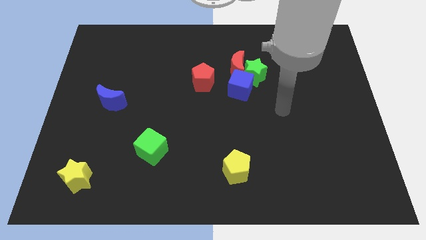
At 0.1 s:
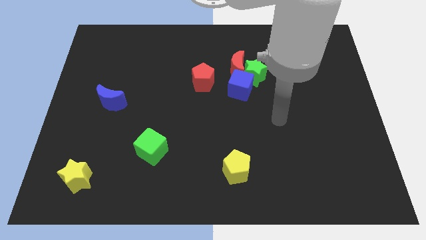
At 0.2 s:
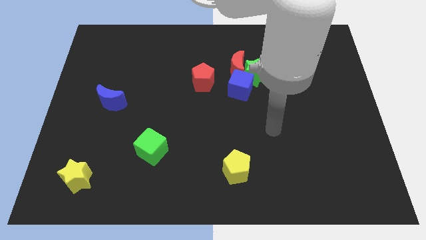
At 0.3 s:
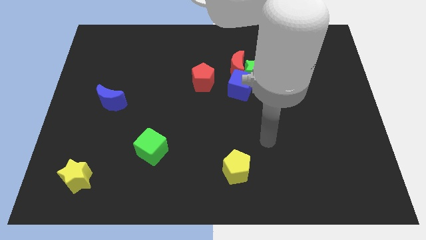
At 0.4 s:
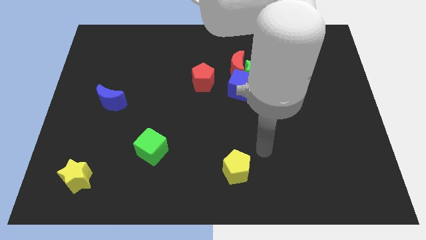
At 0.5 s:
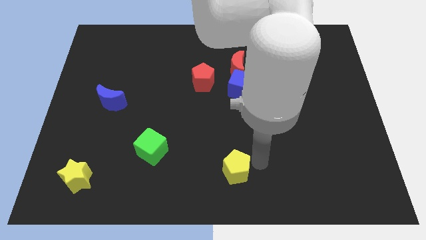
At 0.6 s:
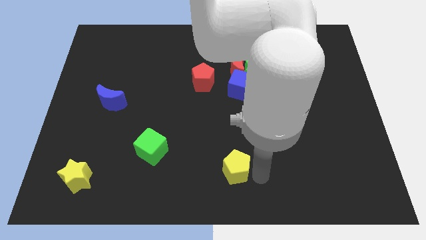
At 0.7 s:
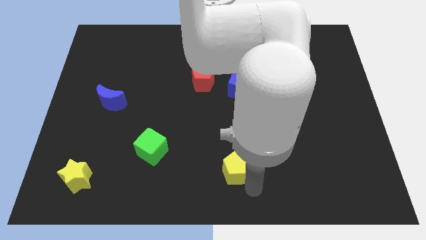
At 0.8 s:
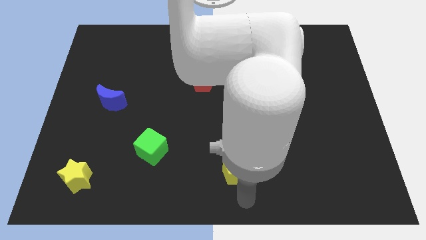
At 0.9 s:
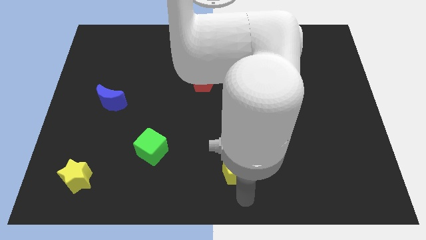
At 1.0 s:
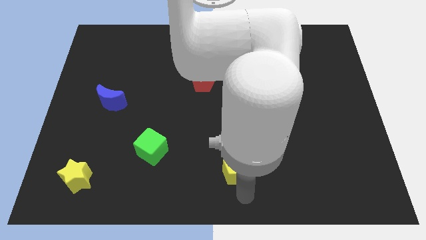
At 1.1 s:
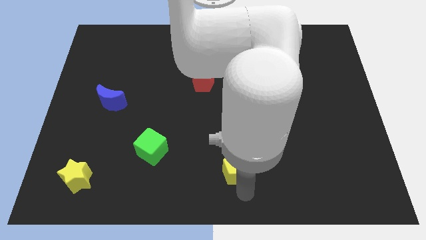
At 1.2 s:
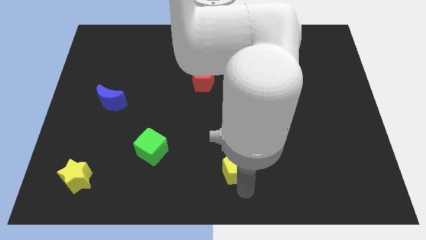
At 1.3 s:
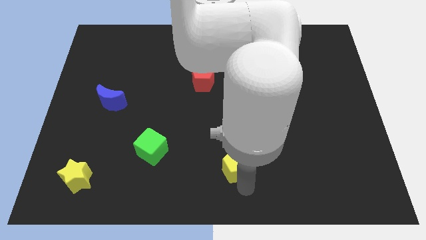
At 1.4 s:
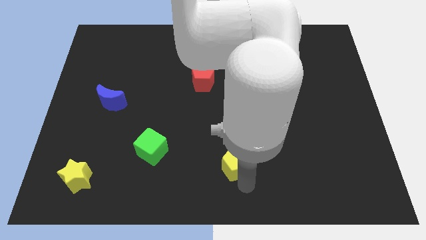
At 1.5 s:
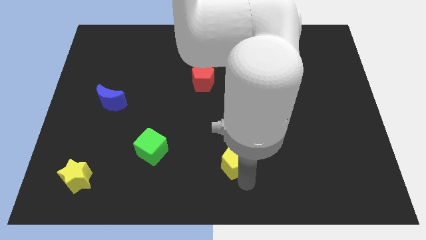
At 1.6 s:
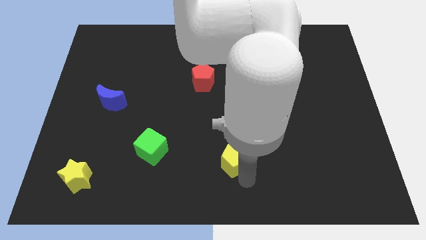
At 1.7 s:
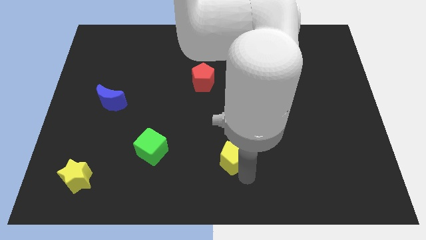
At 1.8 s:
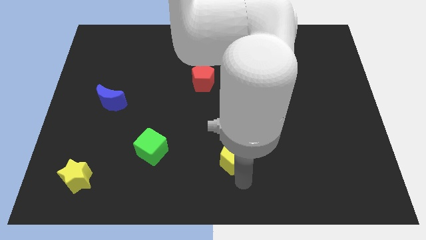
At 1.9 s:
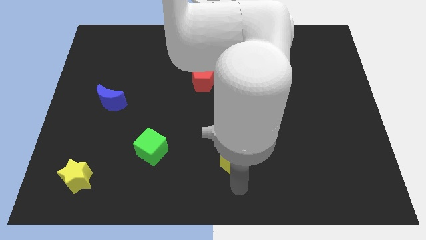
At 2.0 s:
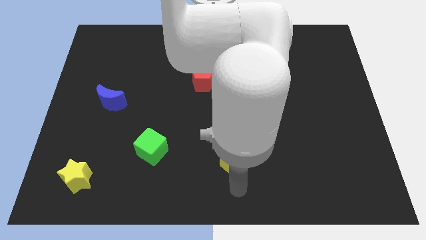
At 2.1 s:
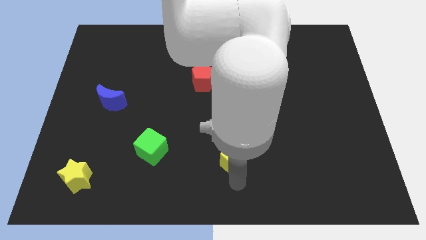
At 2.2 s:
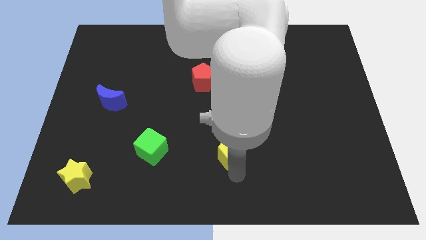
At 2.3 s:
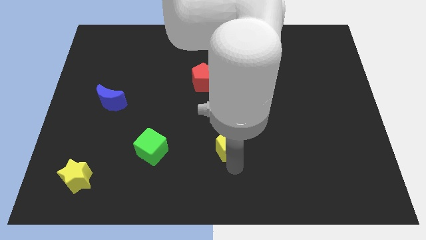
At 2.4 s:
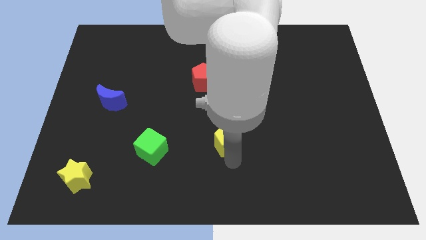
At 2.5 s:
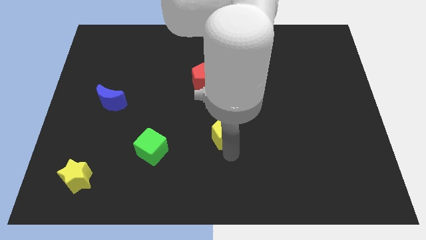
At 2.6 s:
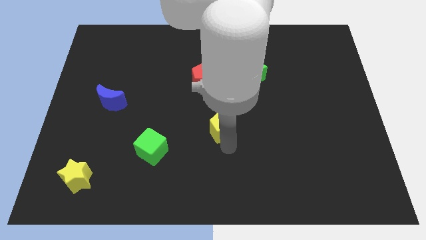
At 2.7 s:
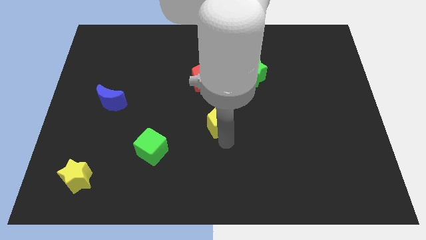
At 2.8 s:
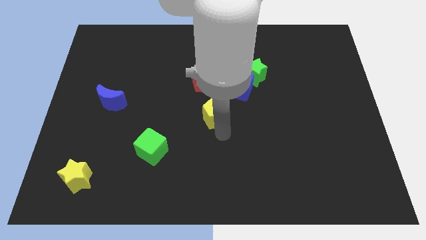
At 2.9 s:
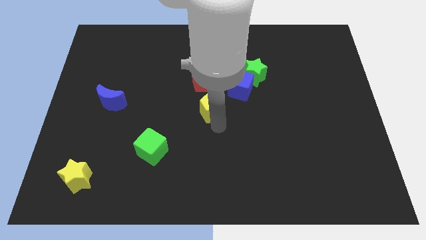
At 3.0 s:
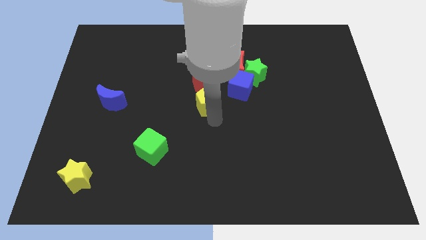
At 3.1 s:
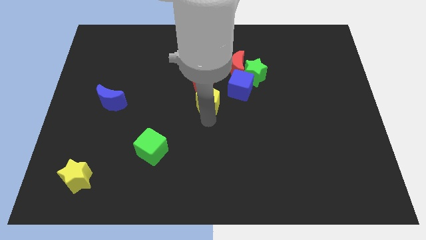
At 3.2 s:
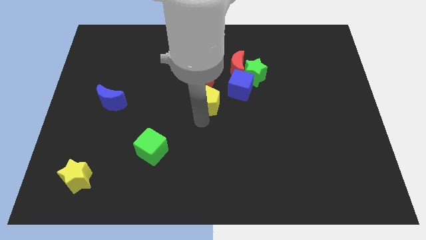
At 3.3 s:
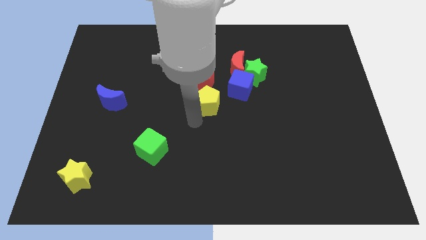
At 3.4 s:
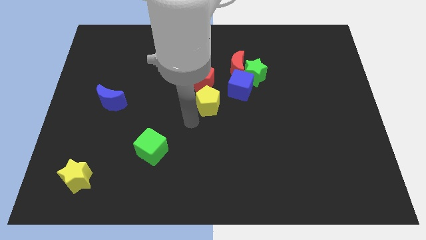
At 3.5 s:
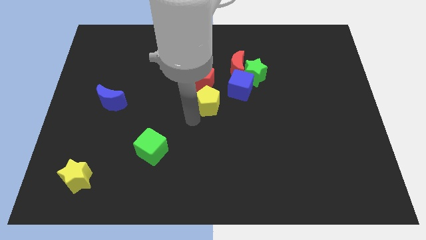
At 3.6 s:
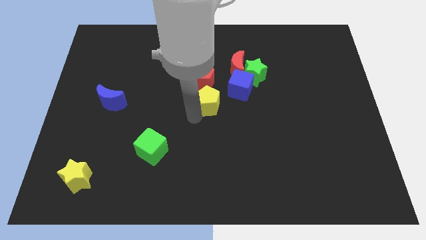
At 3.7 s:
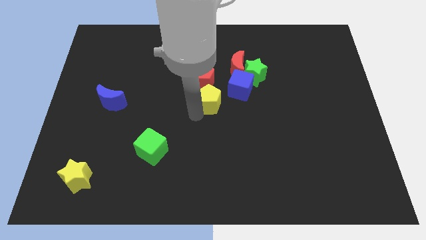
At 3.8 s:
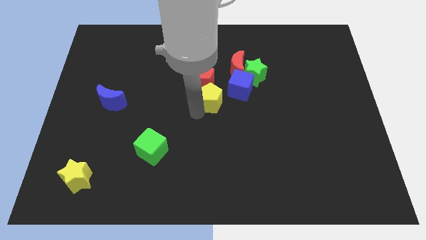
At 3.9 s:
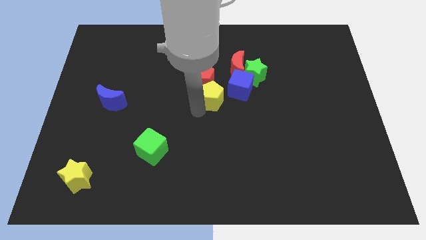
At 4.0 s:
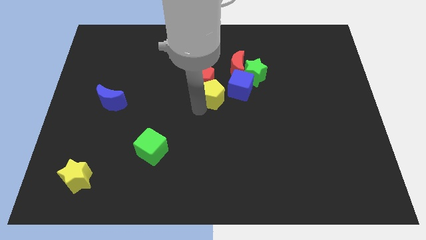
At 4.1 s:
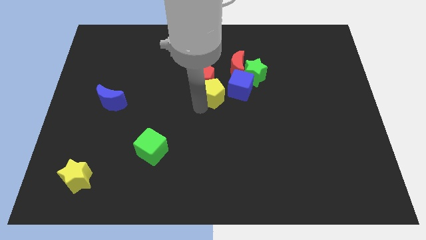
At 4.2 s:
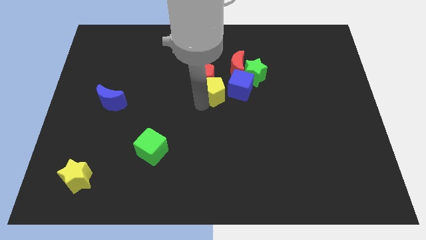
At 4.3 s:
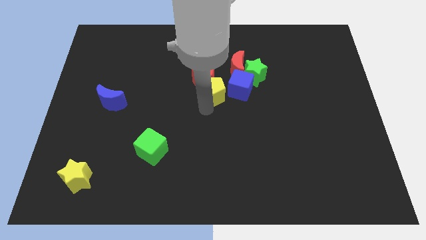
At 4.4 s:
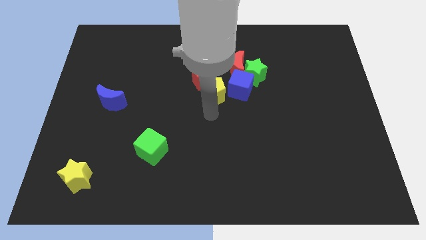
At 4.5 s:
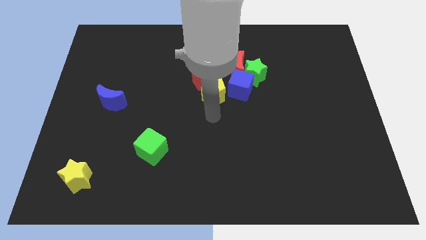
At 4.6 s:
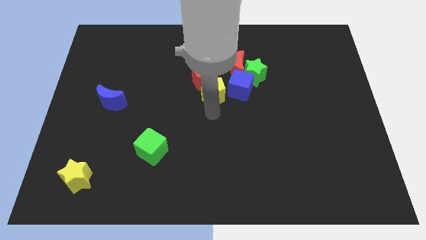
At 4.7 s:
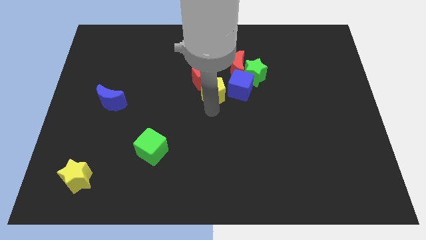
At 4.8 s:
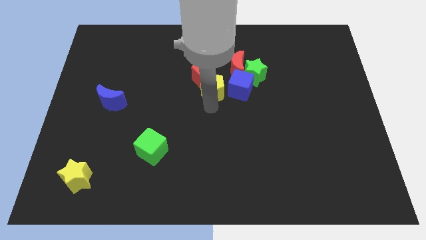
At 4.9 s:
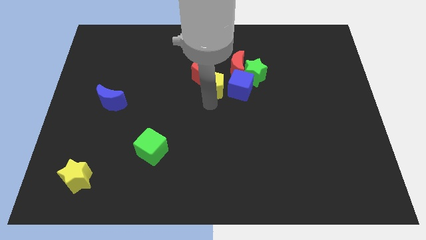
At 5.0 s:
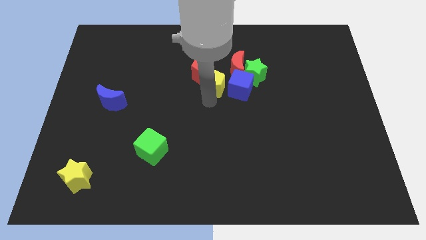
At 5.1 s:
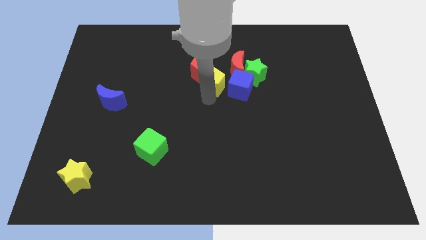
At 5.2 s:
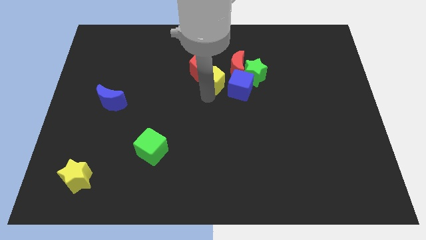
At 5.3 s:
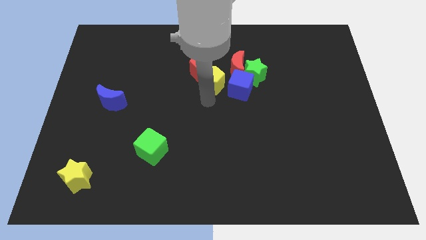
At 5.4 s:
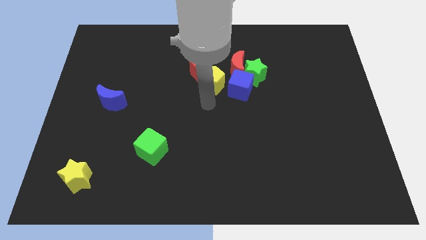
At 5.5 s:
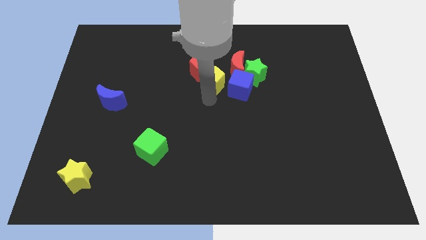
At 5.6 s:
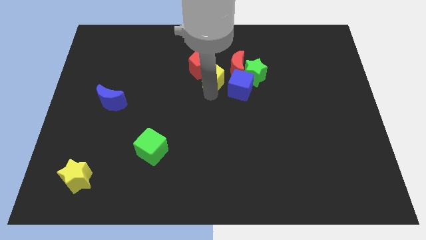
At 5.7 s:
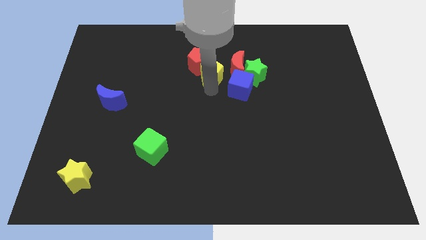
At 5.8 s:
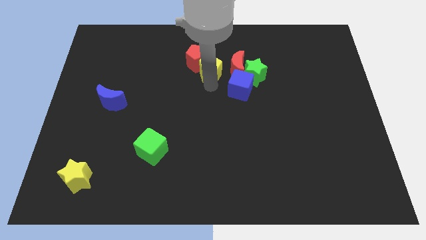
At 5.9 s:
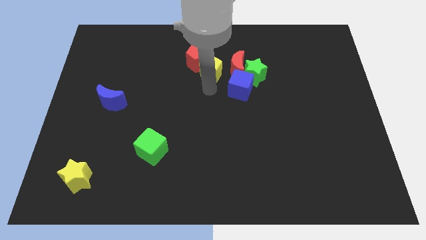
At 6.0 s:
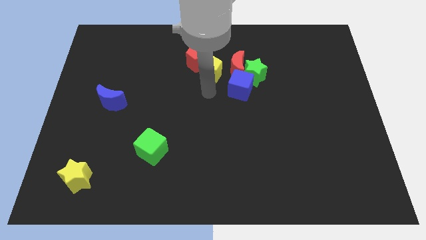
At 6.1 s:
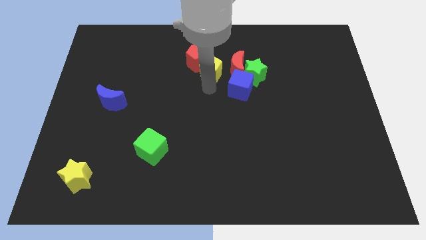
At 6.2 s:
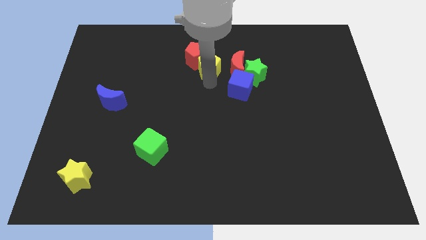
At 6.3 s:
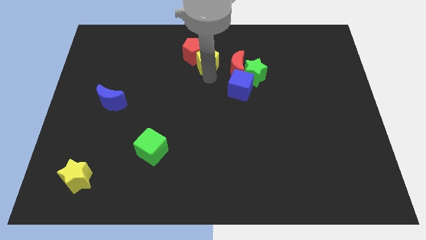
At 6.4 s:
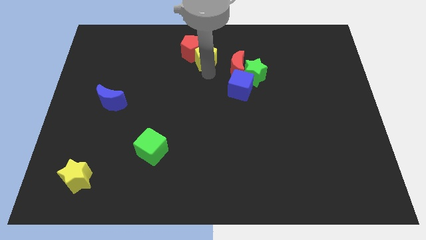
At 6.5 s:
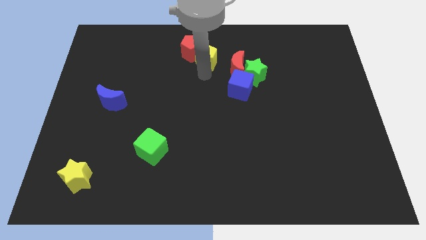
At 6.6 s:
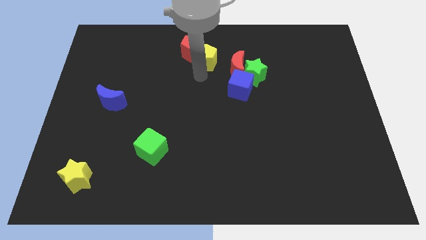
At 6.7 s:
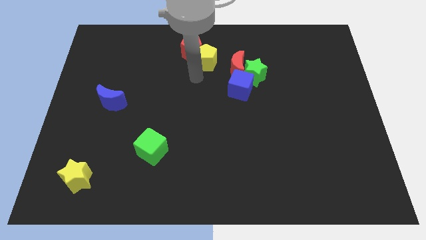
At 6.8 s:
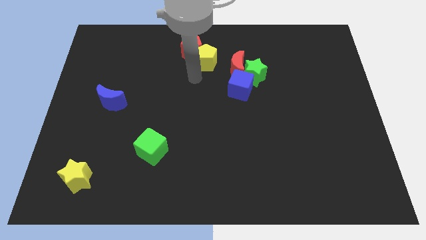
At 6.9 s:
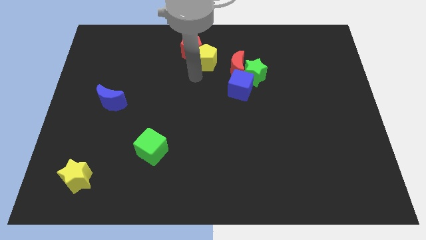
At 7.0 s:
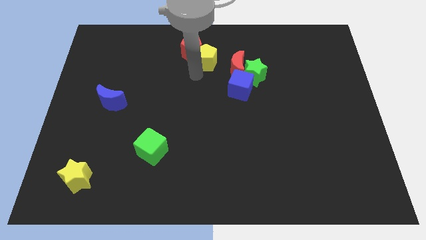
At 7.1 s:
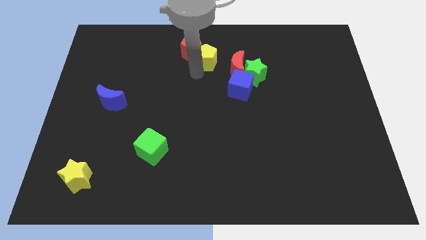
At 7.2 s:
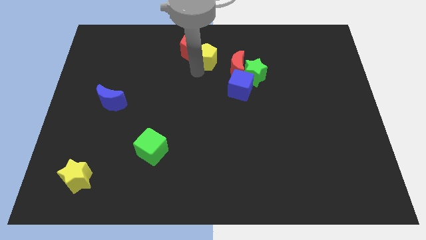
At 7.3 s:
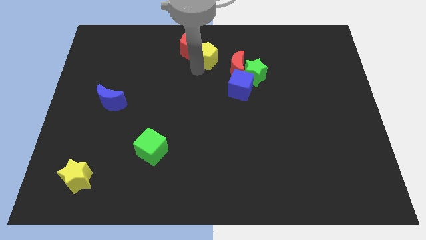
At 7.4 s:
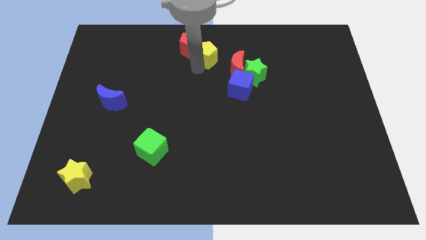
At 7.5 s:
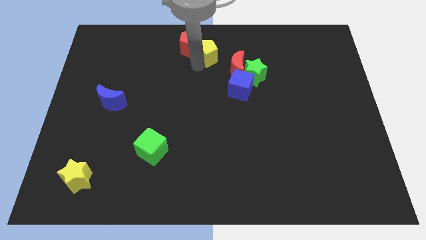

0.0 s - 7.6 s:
put the yellow pentagon to the top
